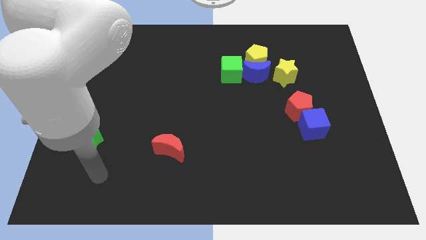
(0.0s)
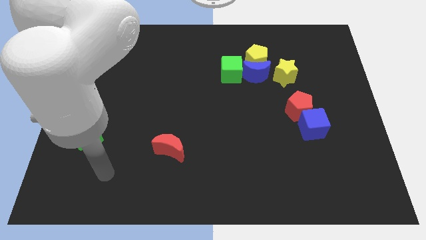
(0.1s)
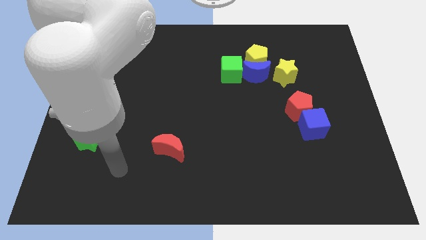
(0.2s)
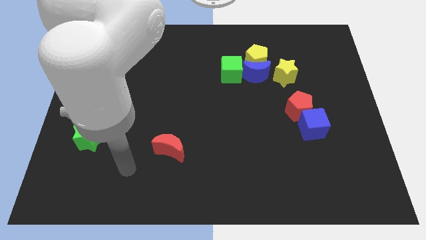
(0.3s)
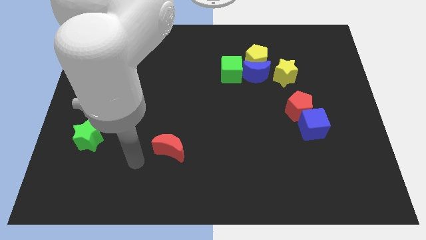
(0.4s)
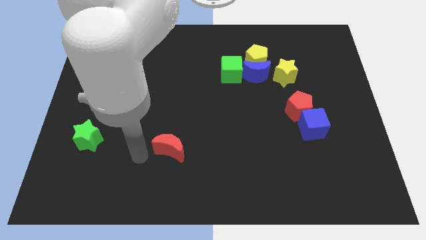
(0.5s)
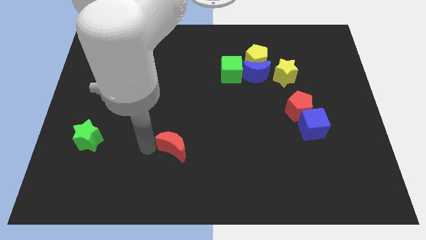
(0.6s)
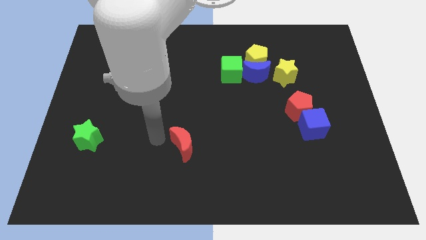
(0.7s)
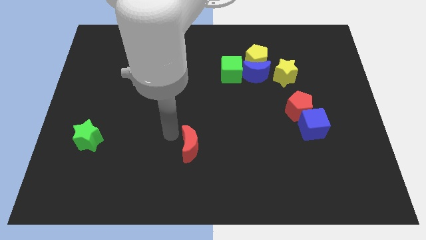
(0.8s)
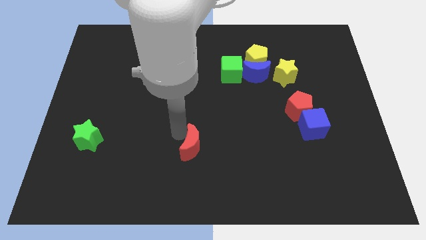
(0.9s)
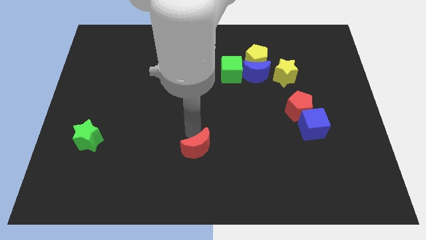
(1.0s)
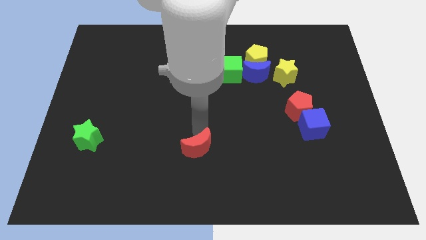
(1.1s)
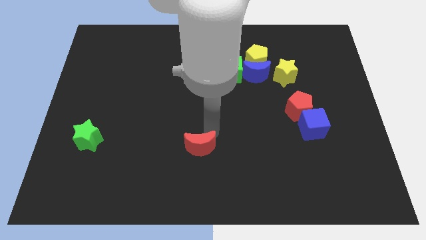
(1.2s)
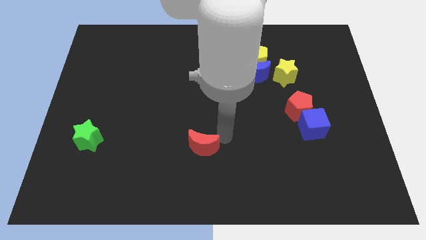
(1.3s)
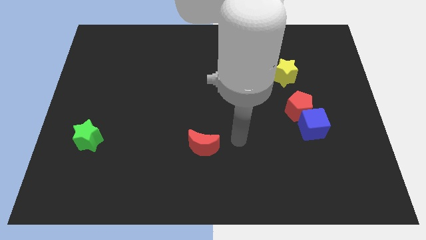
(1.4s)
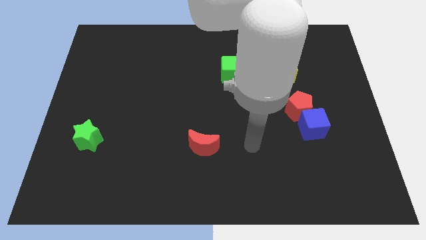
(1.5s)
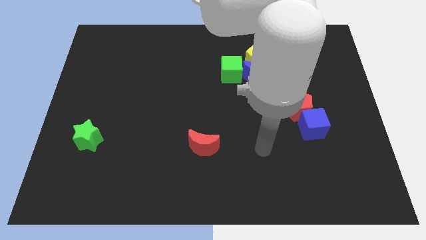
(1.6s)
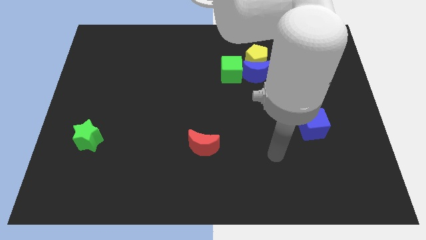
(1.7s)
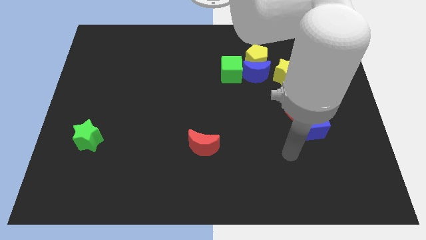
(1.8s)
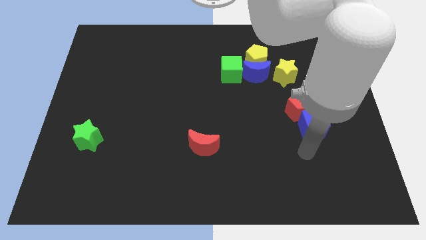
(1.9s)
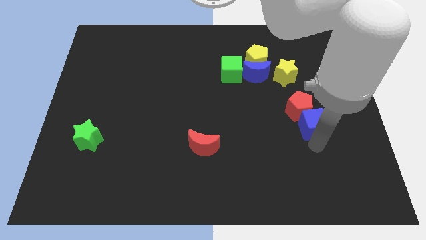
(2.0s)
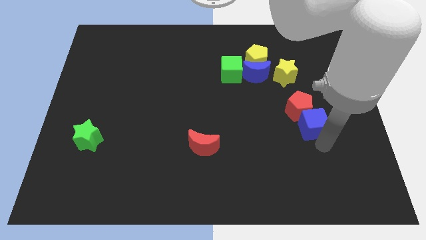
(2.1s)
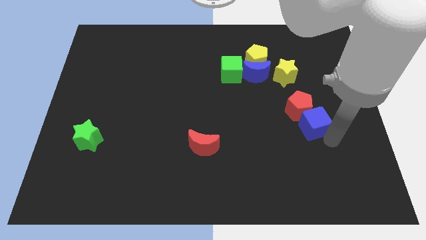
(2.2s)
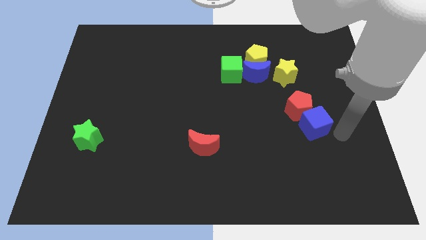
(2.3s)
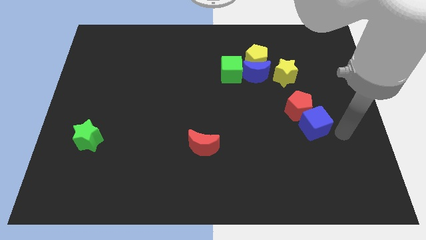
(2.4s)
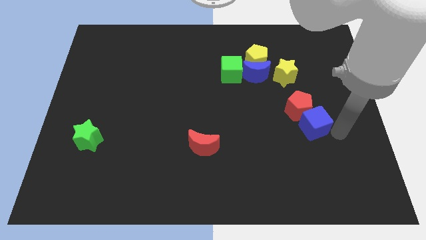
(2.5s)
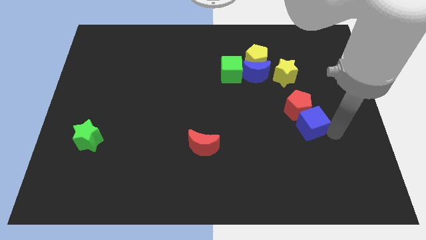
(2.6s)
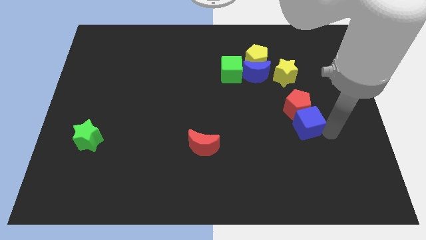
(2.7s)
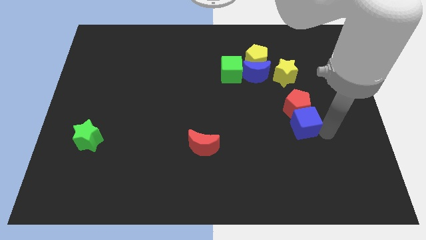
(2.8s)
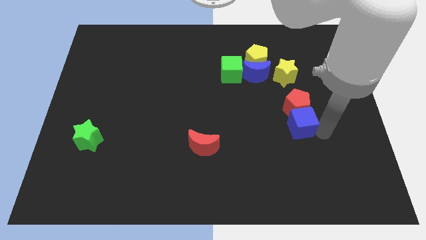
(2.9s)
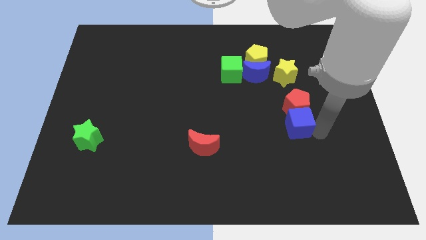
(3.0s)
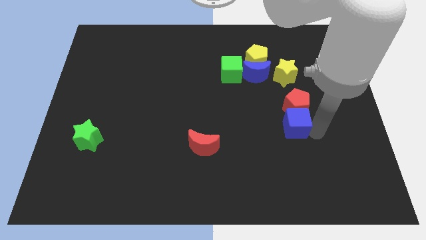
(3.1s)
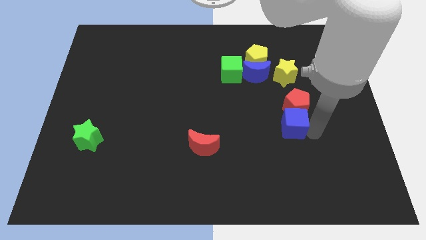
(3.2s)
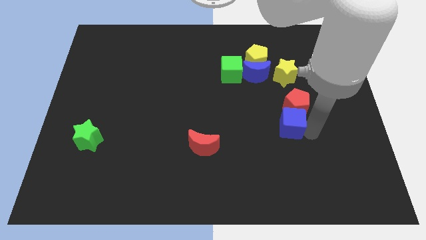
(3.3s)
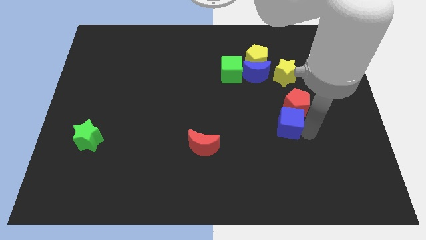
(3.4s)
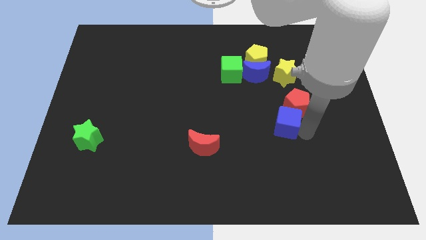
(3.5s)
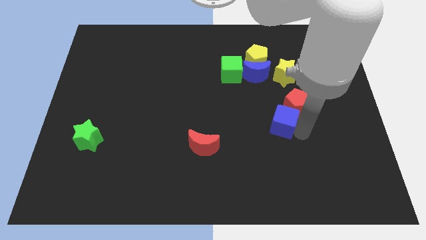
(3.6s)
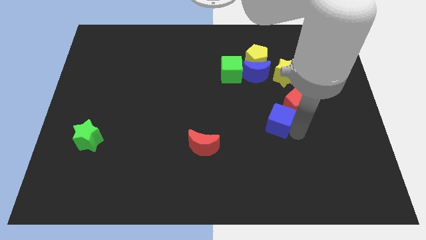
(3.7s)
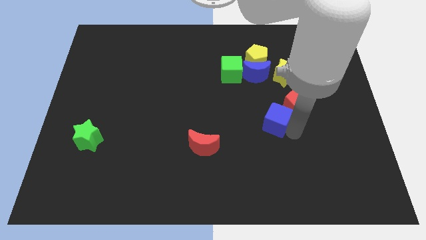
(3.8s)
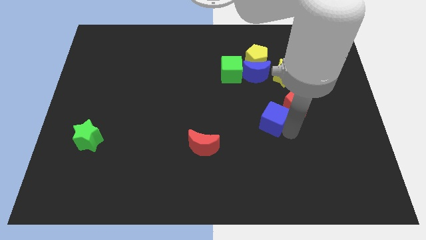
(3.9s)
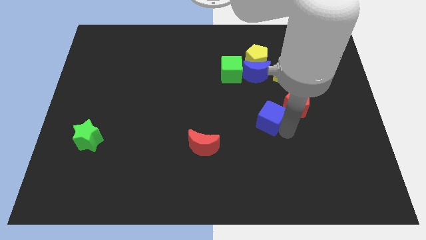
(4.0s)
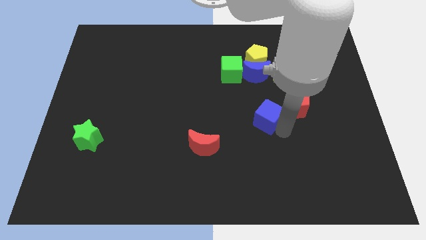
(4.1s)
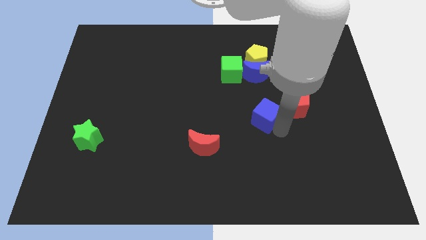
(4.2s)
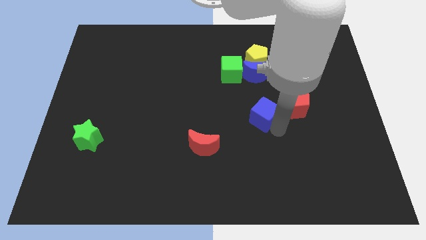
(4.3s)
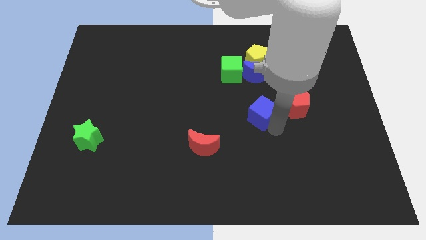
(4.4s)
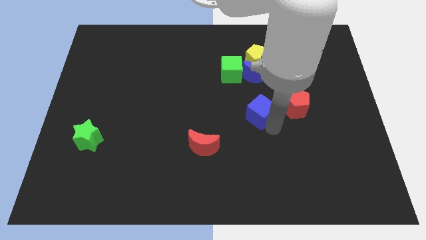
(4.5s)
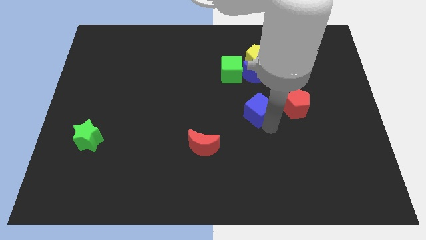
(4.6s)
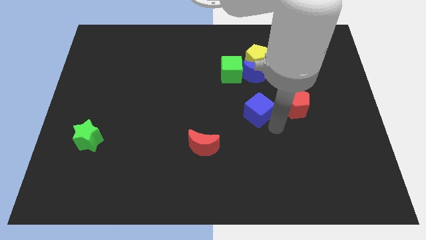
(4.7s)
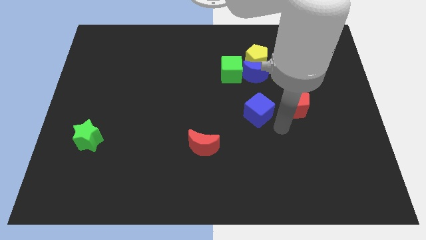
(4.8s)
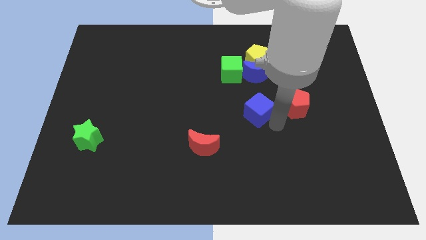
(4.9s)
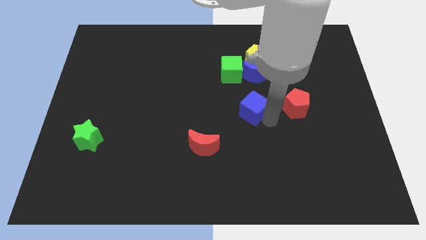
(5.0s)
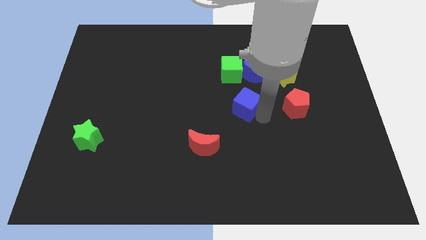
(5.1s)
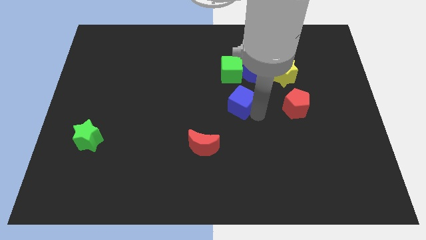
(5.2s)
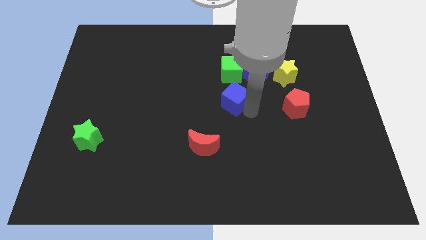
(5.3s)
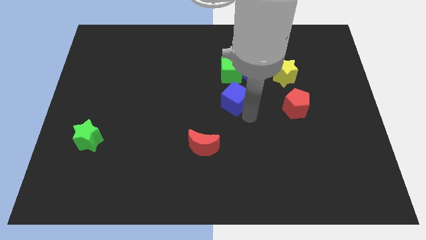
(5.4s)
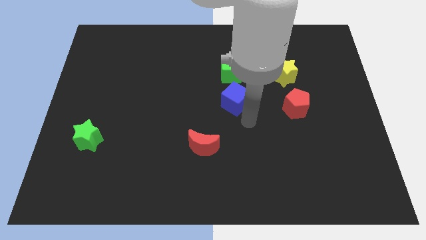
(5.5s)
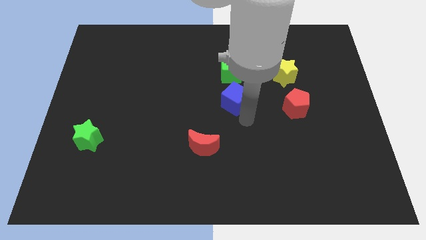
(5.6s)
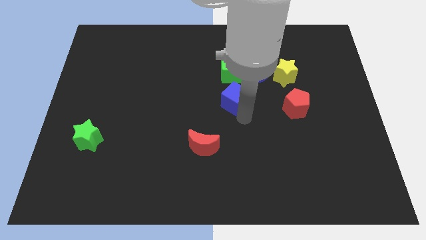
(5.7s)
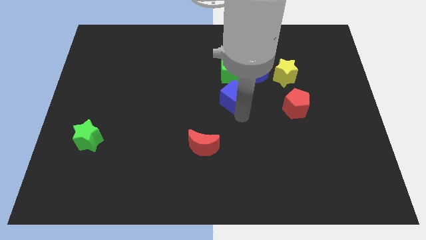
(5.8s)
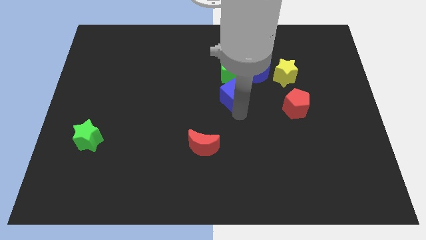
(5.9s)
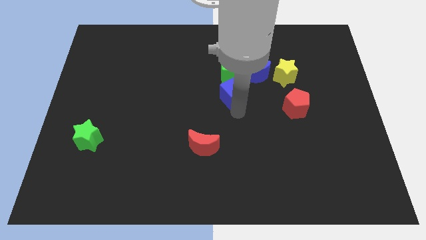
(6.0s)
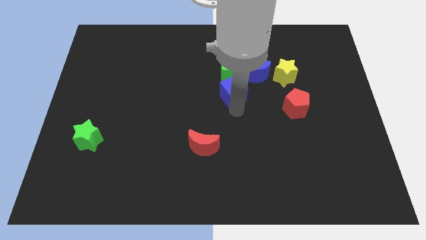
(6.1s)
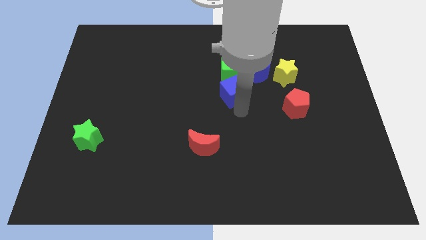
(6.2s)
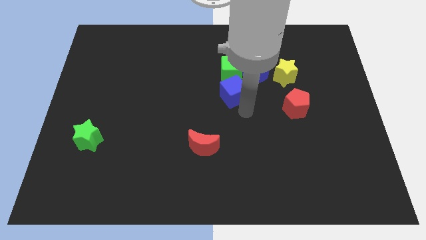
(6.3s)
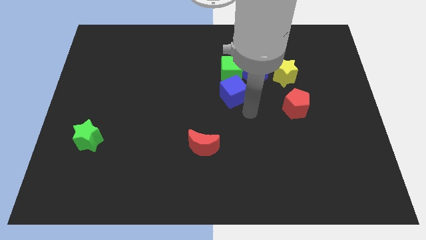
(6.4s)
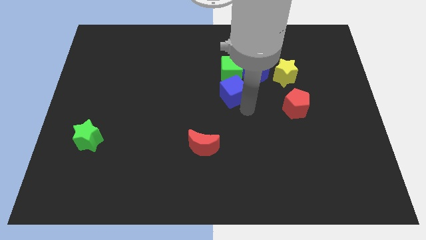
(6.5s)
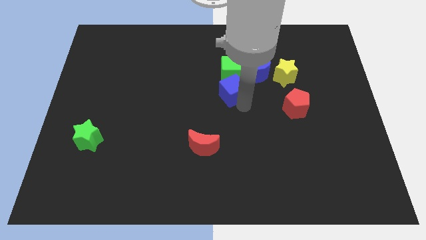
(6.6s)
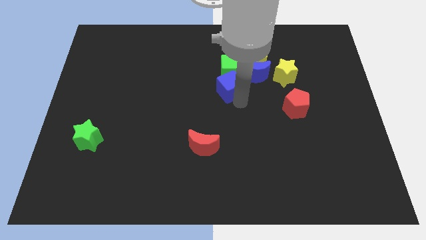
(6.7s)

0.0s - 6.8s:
move the blue cube to the left of the blue moon

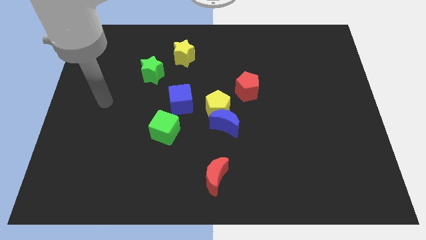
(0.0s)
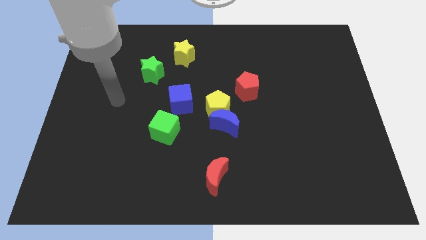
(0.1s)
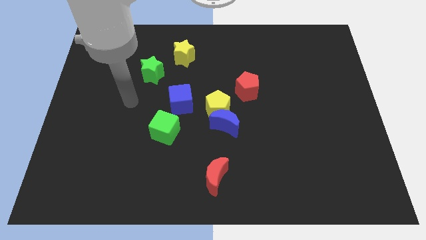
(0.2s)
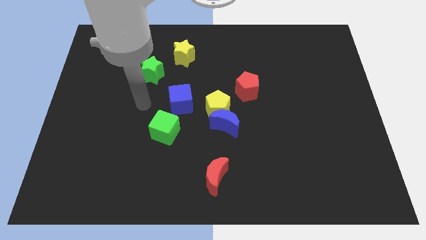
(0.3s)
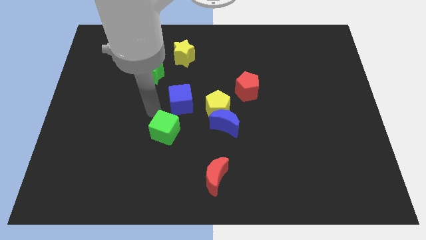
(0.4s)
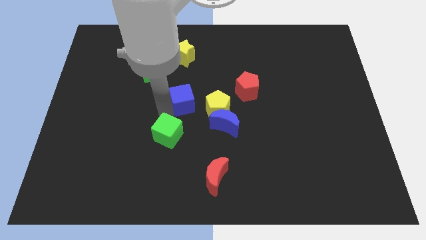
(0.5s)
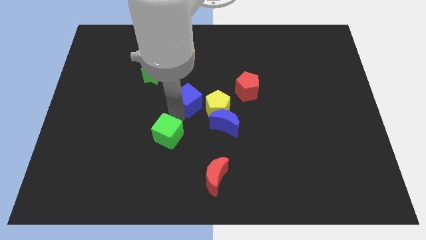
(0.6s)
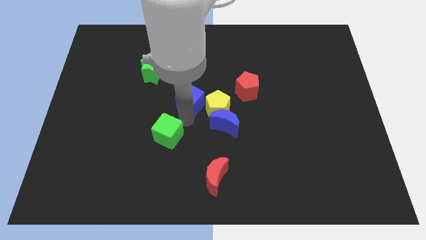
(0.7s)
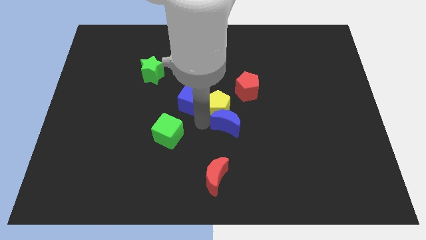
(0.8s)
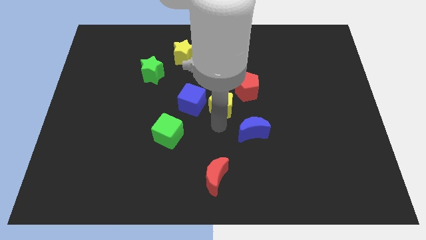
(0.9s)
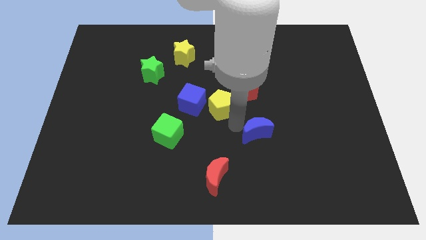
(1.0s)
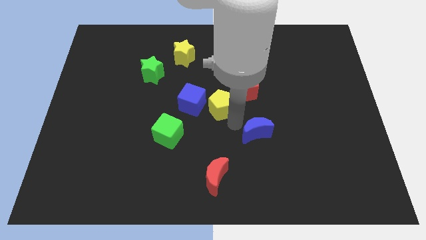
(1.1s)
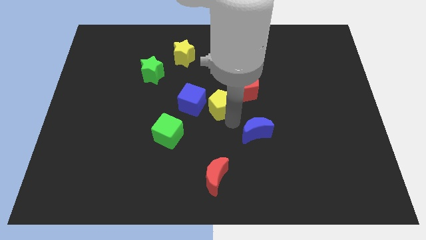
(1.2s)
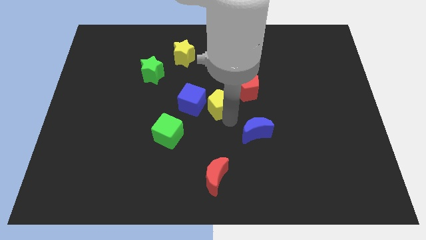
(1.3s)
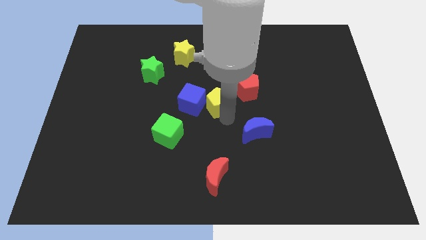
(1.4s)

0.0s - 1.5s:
move the yellow pentagon just left of the red pentagon
